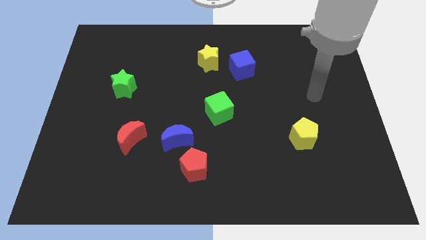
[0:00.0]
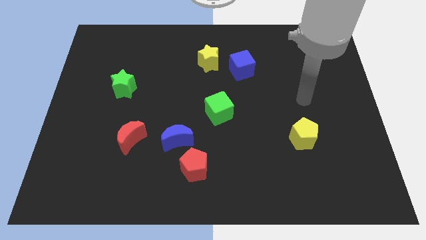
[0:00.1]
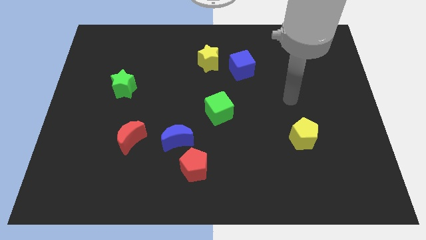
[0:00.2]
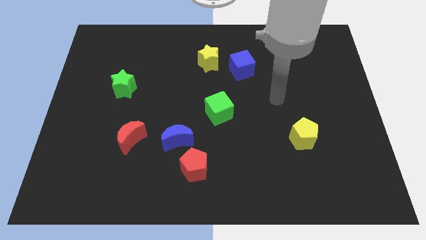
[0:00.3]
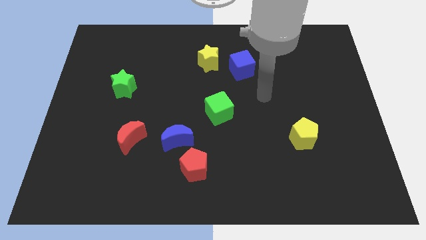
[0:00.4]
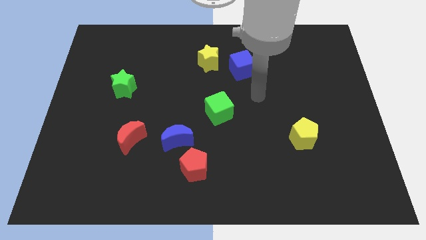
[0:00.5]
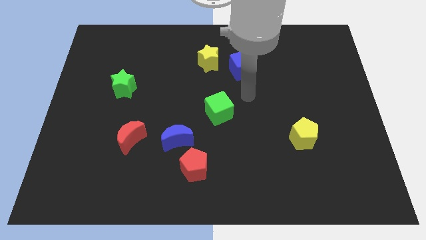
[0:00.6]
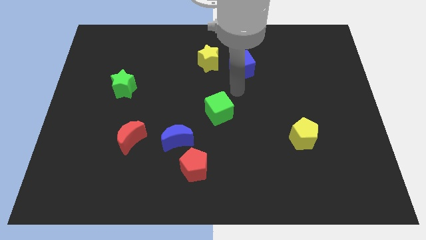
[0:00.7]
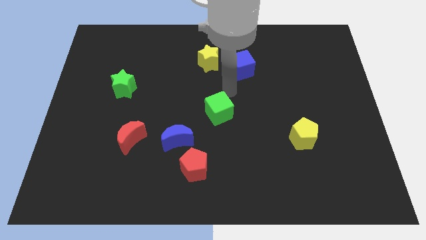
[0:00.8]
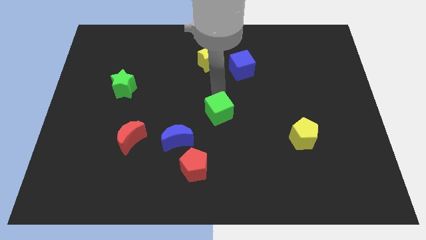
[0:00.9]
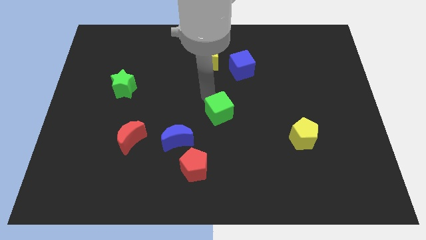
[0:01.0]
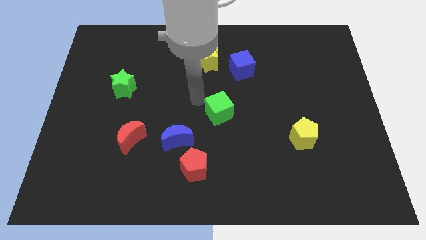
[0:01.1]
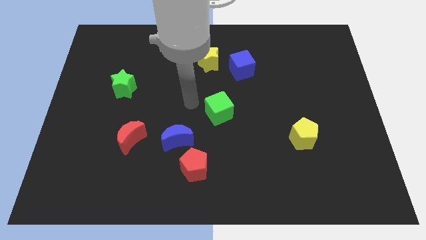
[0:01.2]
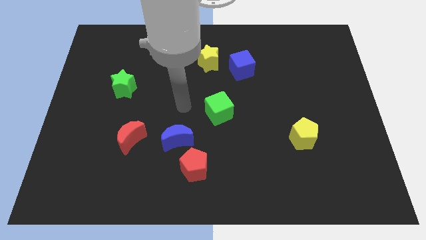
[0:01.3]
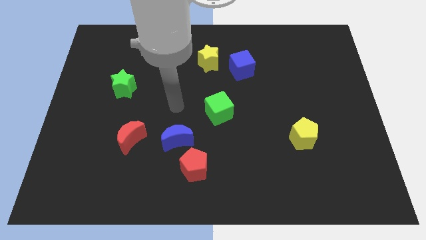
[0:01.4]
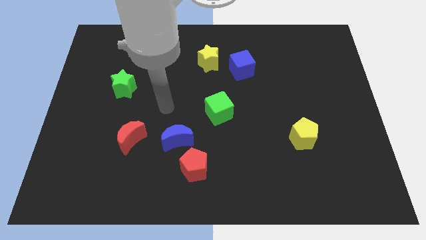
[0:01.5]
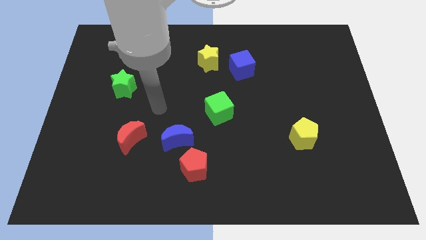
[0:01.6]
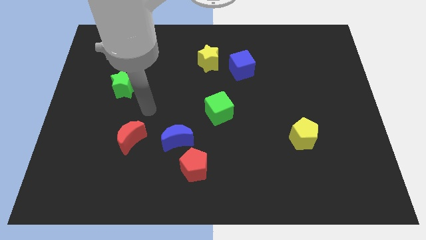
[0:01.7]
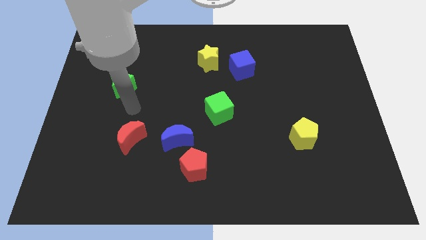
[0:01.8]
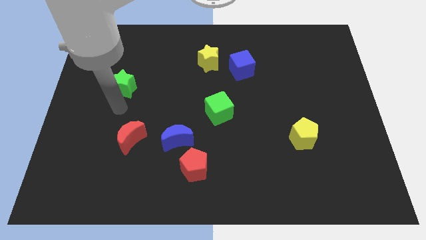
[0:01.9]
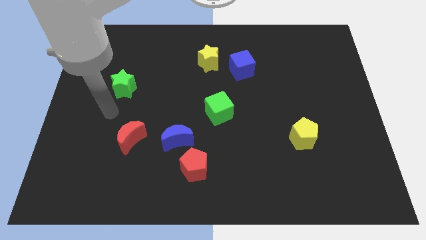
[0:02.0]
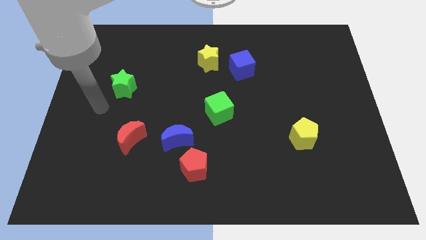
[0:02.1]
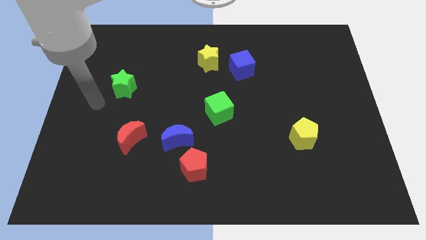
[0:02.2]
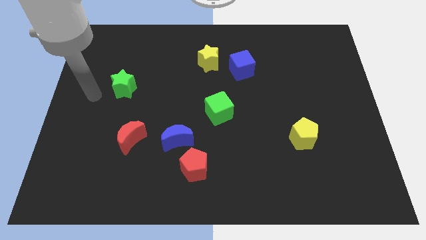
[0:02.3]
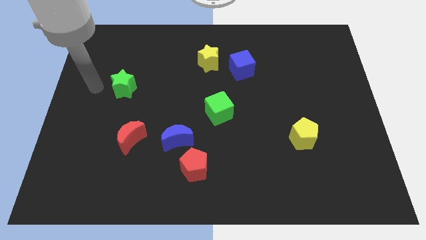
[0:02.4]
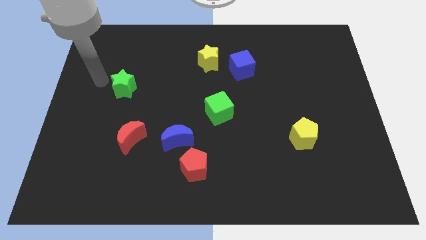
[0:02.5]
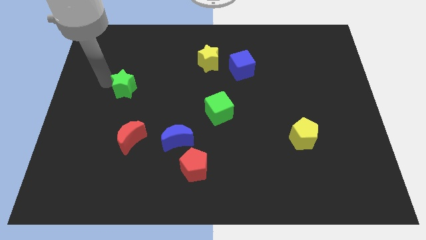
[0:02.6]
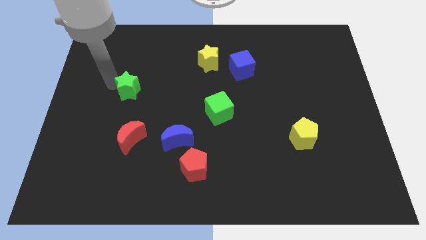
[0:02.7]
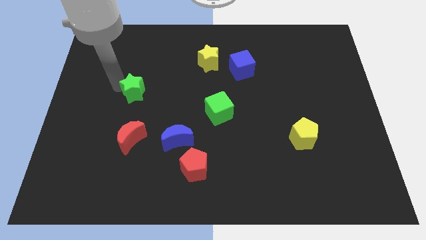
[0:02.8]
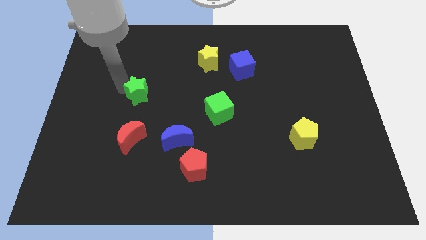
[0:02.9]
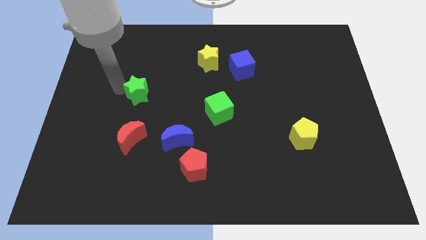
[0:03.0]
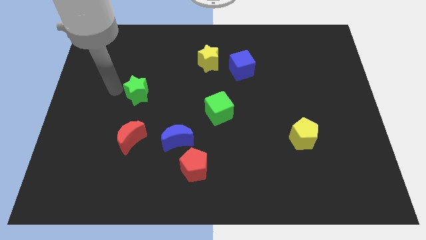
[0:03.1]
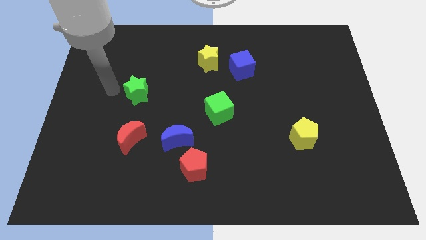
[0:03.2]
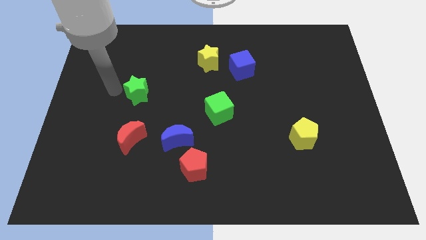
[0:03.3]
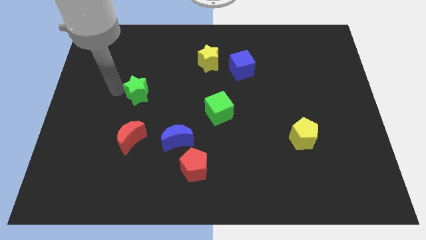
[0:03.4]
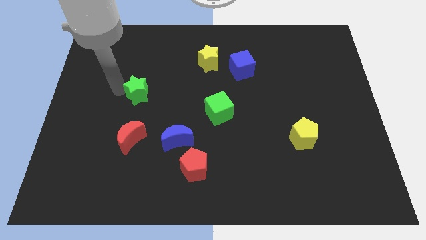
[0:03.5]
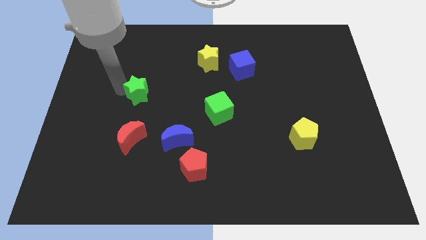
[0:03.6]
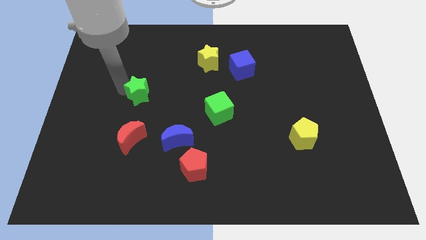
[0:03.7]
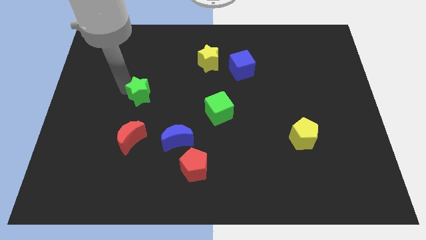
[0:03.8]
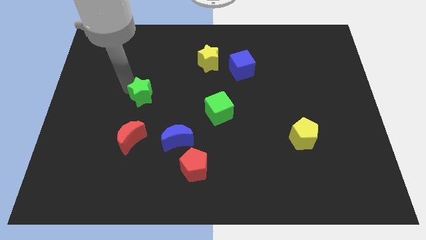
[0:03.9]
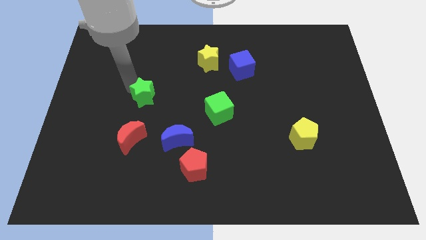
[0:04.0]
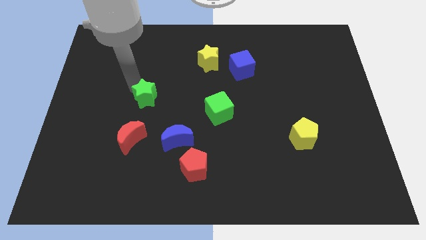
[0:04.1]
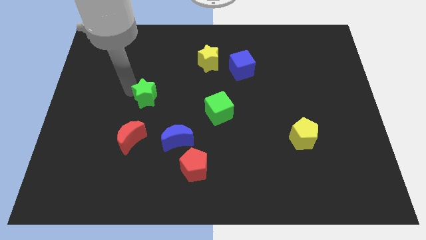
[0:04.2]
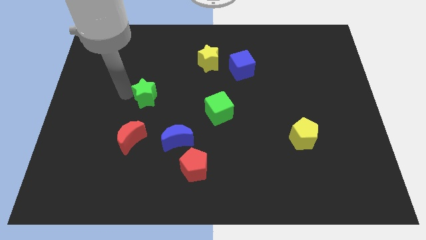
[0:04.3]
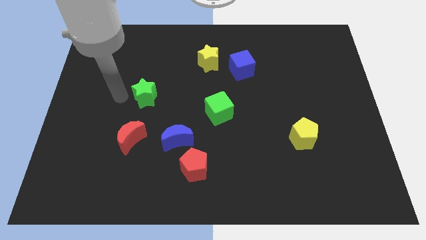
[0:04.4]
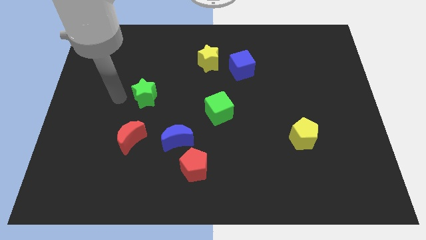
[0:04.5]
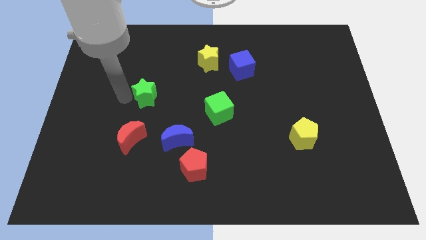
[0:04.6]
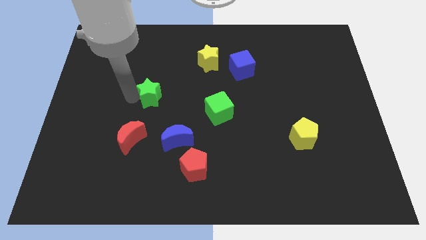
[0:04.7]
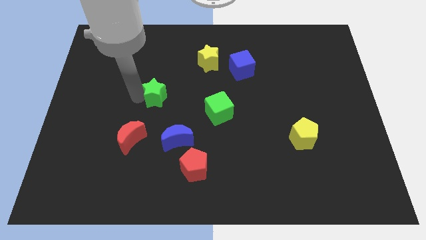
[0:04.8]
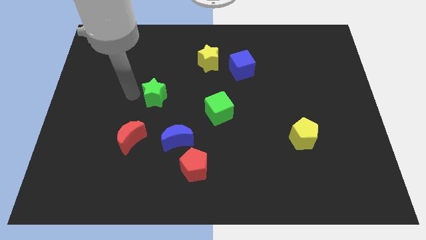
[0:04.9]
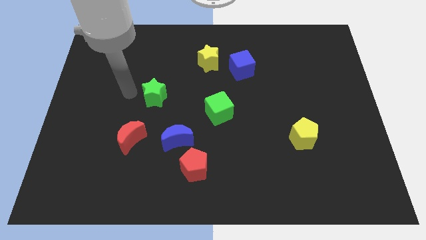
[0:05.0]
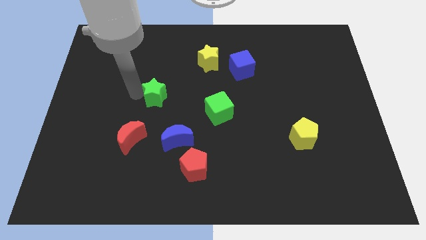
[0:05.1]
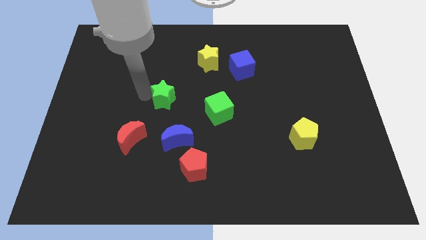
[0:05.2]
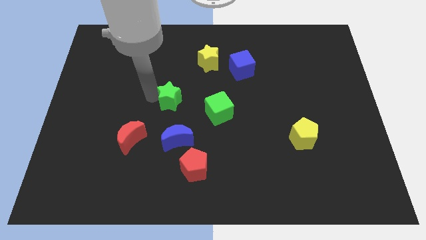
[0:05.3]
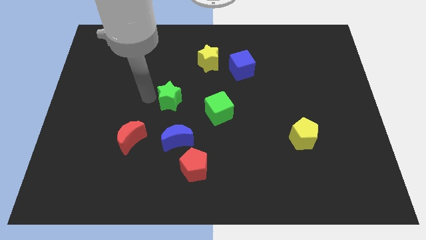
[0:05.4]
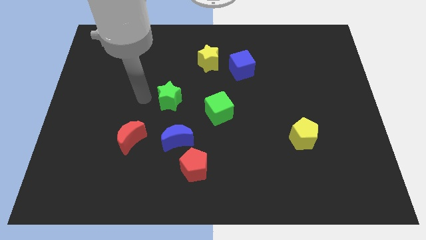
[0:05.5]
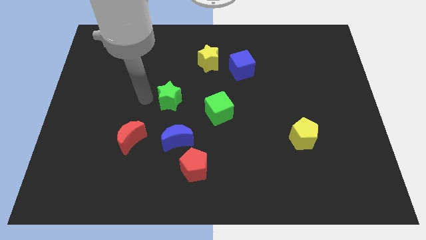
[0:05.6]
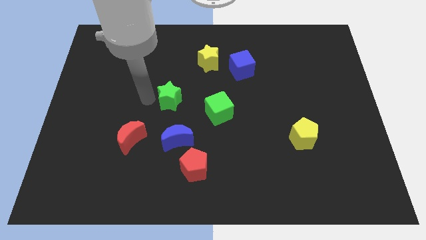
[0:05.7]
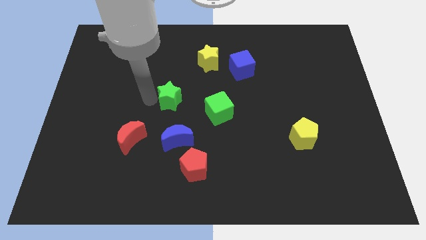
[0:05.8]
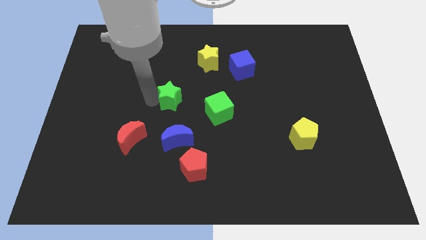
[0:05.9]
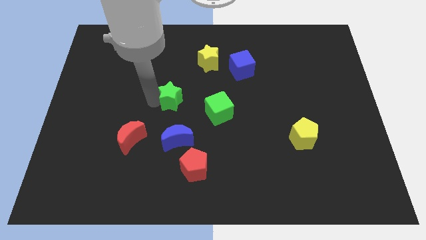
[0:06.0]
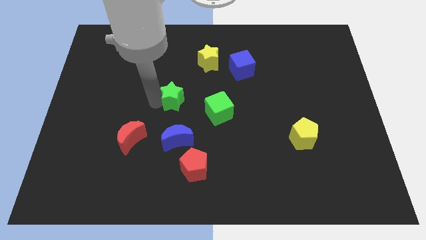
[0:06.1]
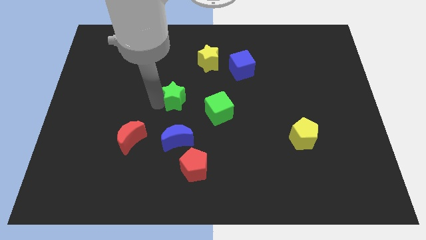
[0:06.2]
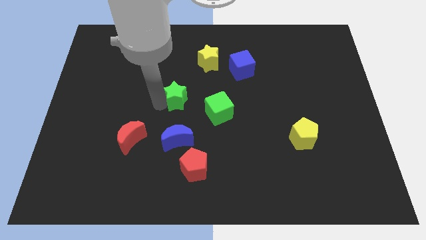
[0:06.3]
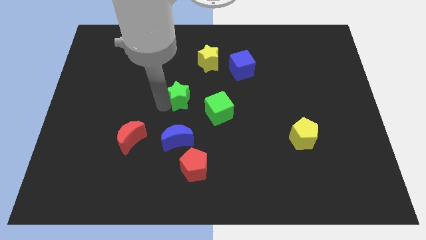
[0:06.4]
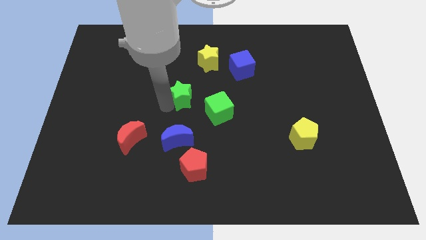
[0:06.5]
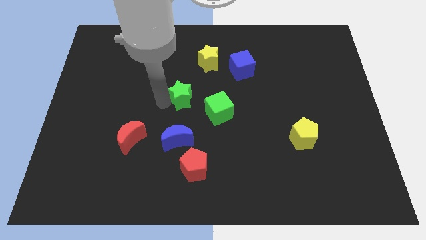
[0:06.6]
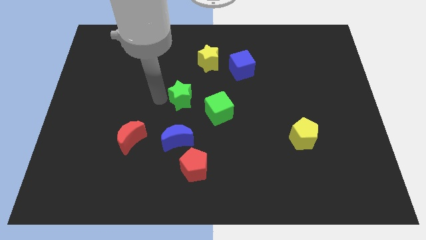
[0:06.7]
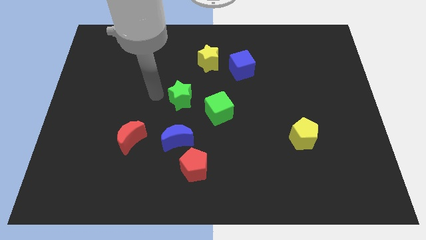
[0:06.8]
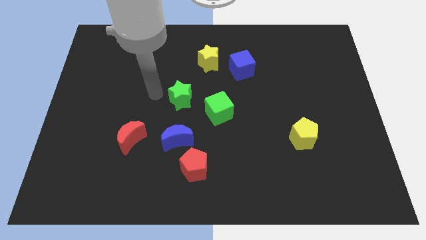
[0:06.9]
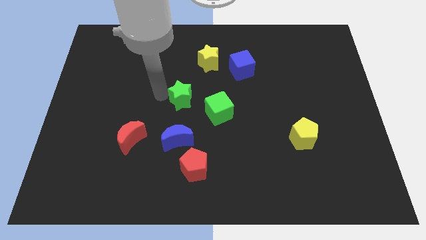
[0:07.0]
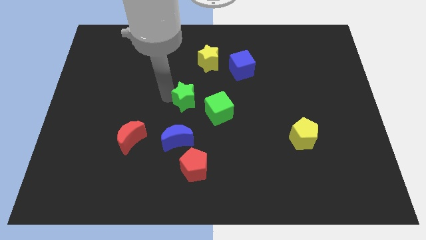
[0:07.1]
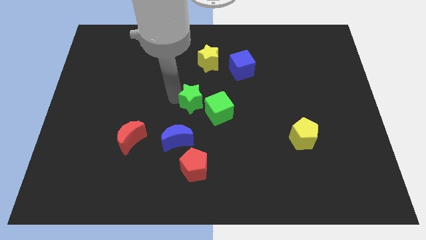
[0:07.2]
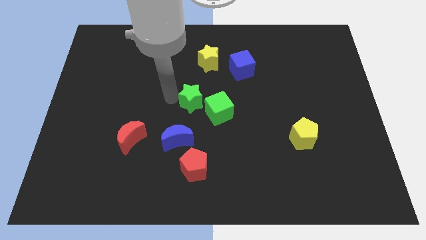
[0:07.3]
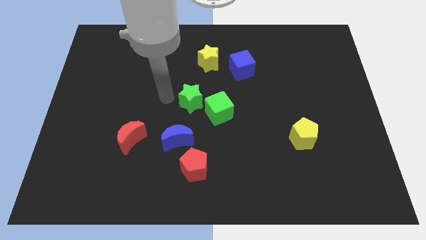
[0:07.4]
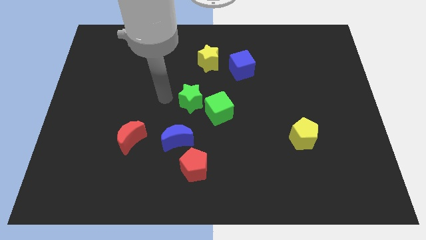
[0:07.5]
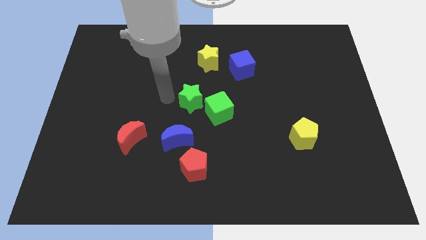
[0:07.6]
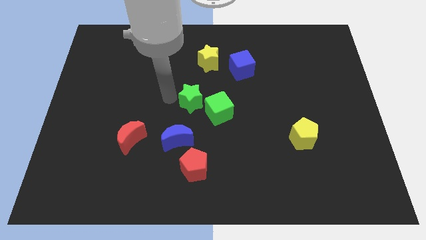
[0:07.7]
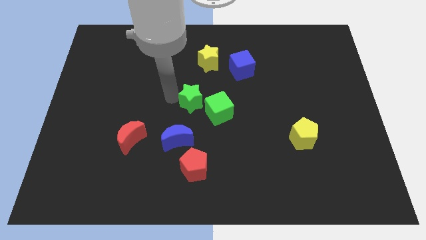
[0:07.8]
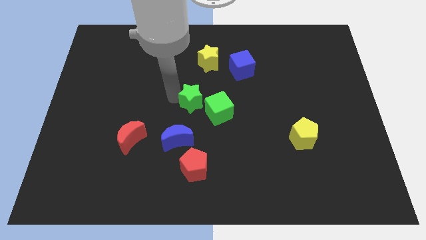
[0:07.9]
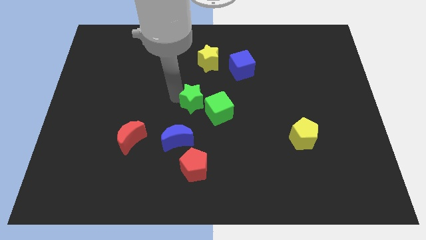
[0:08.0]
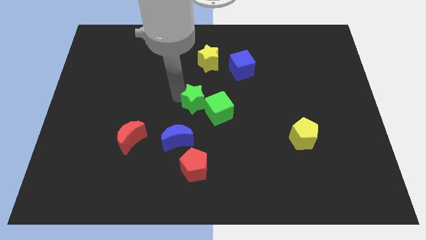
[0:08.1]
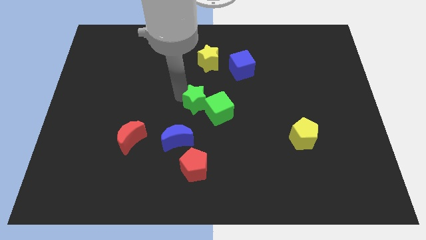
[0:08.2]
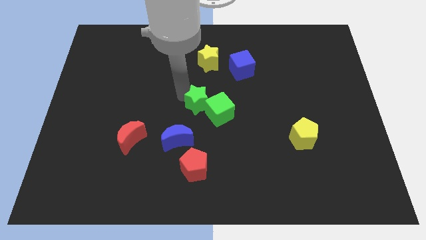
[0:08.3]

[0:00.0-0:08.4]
put the green star close to the green cube
